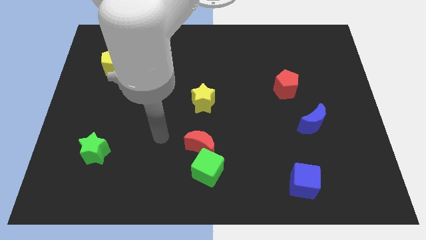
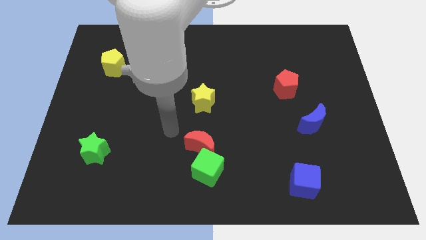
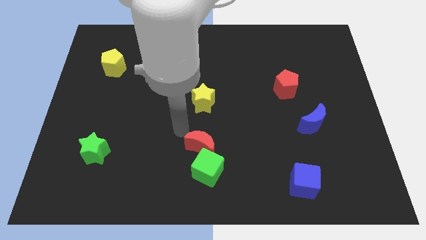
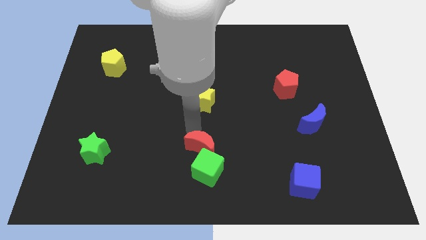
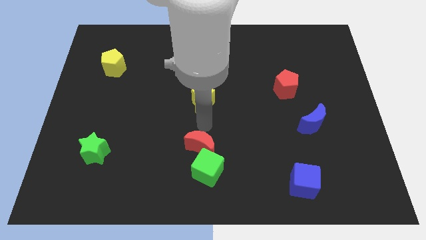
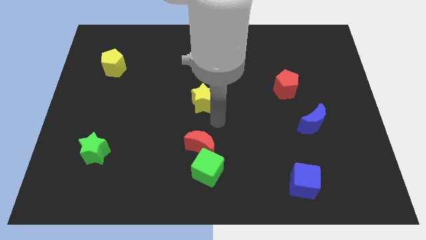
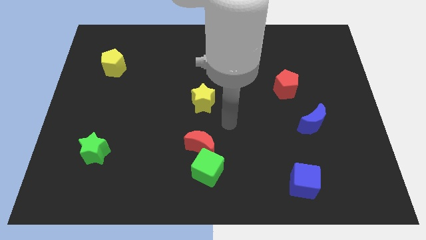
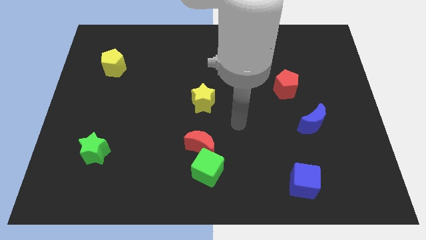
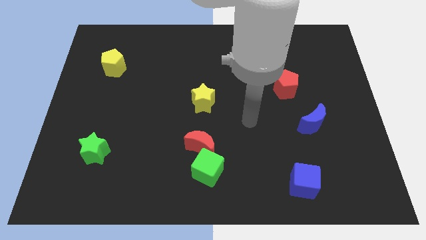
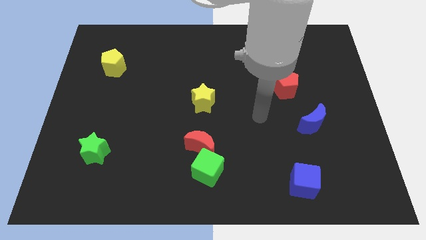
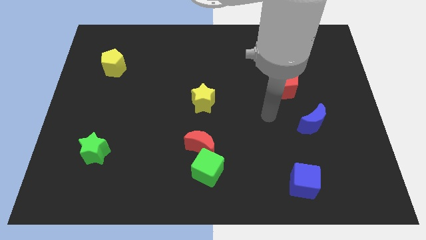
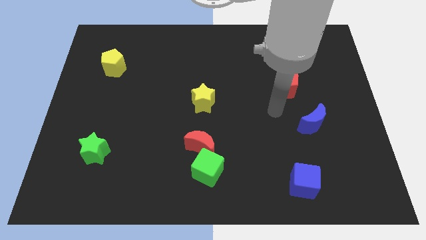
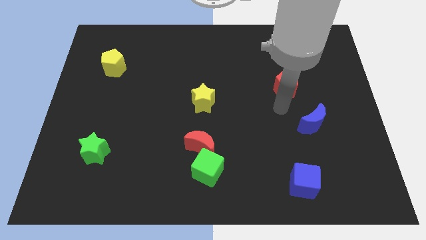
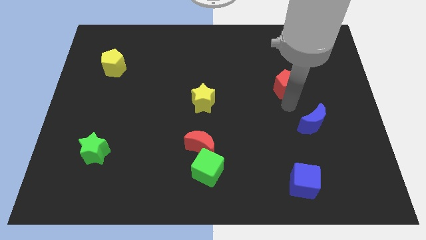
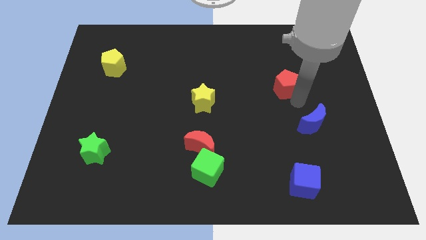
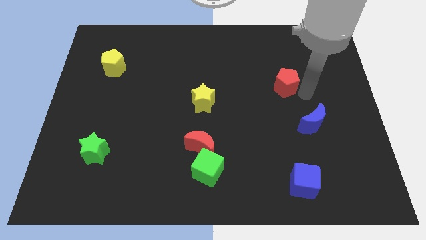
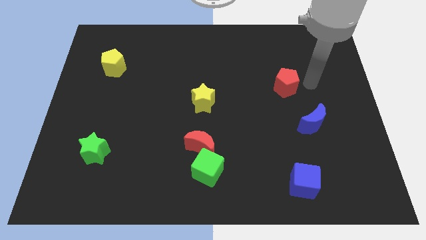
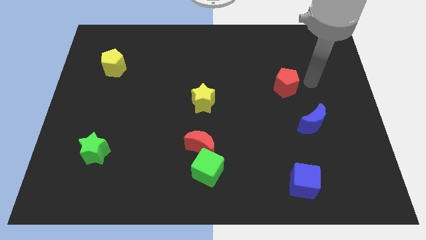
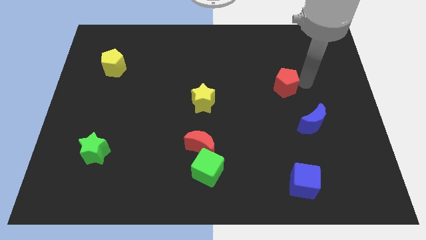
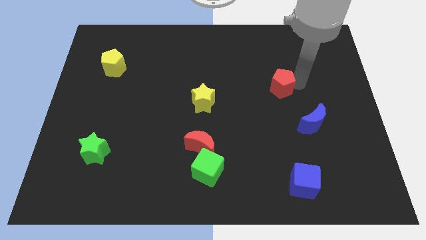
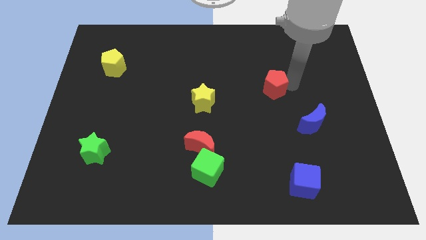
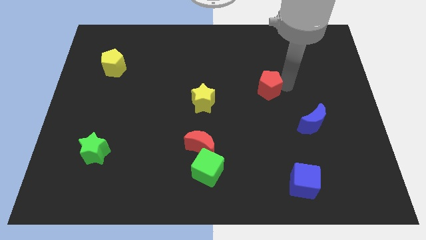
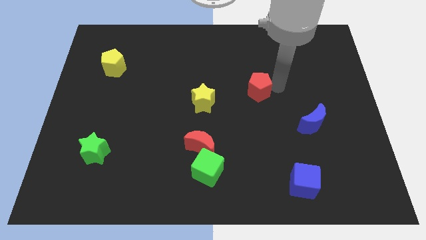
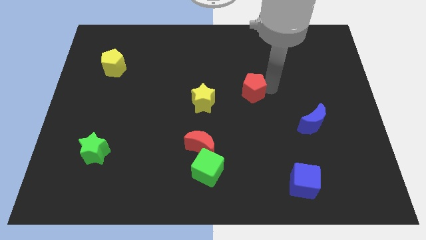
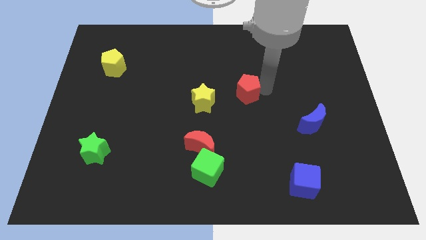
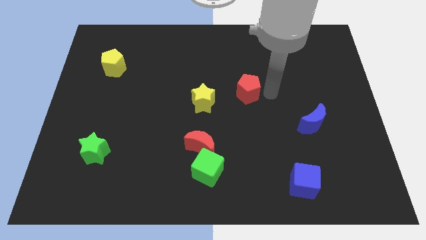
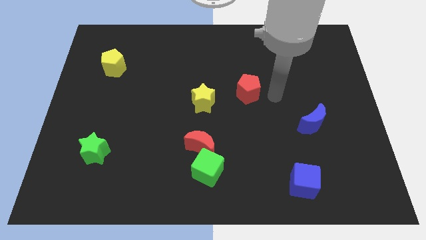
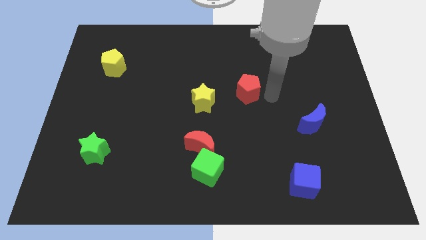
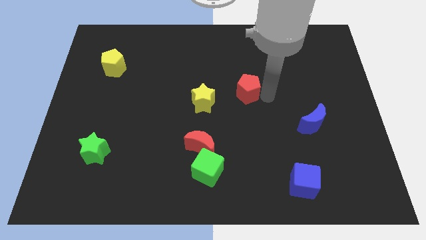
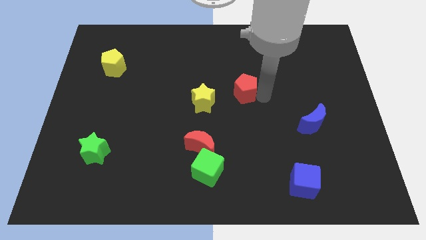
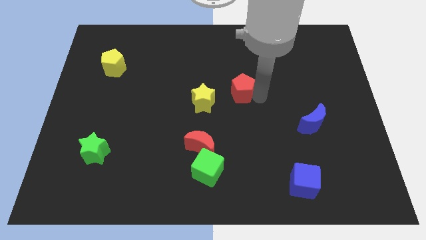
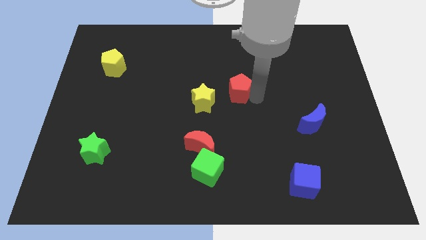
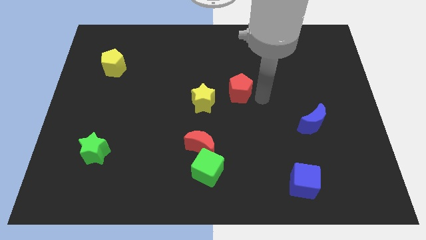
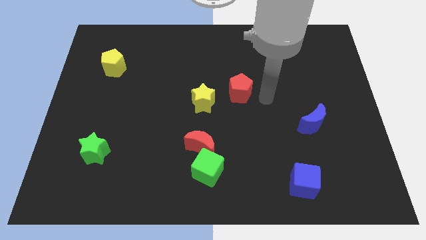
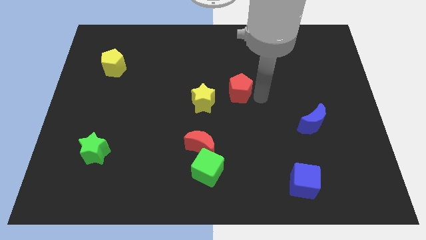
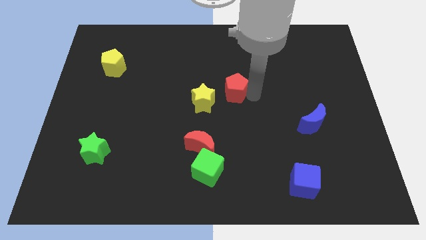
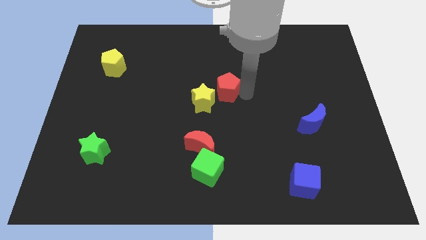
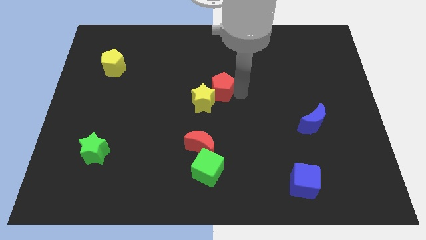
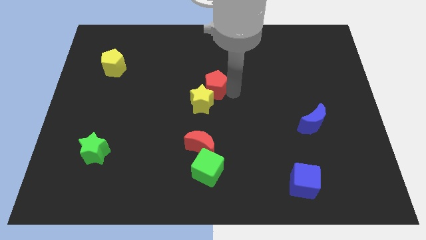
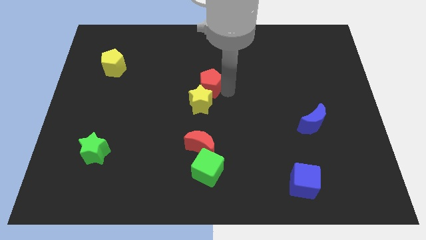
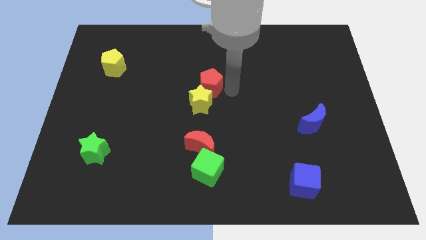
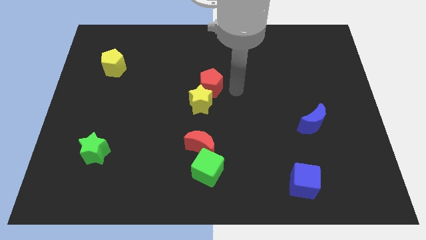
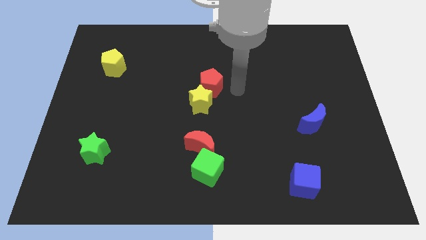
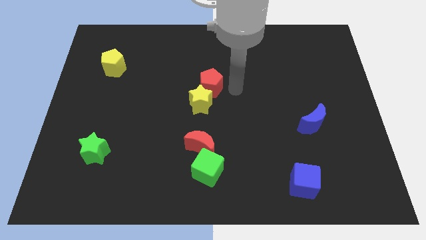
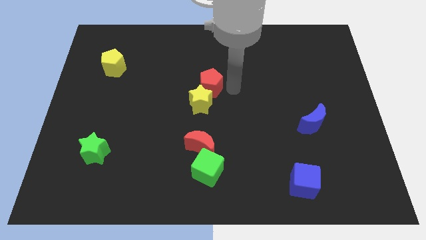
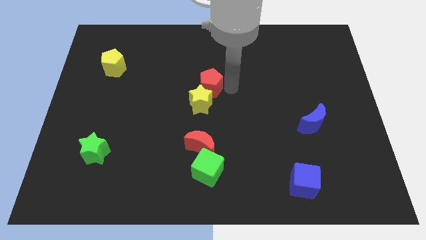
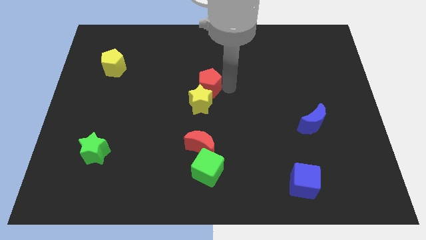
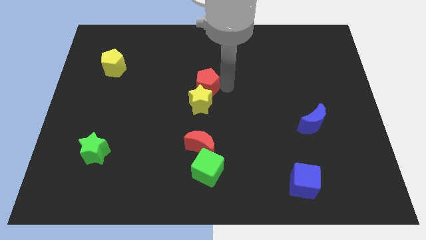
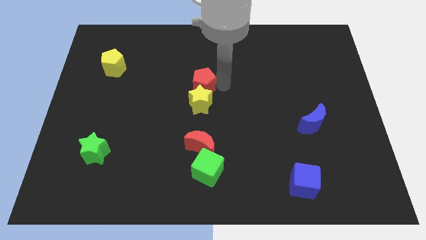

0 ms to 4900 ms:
slide the red pentagon to the left

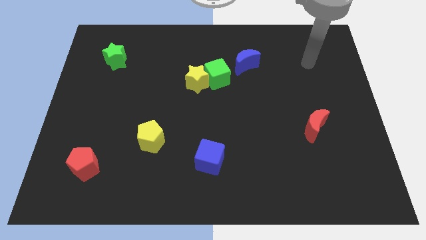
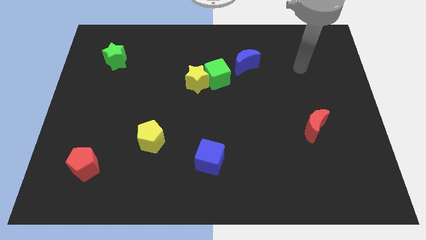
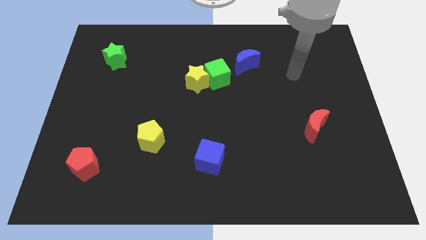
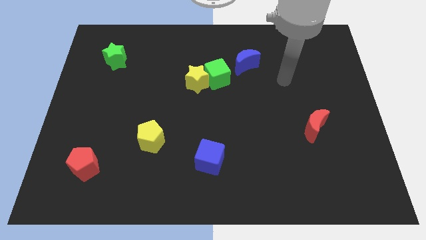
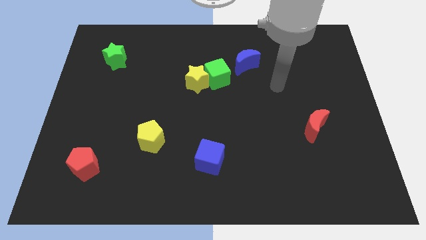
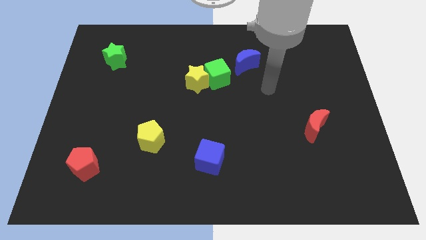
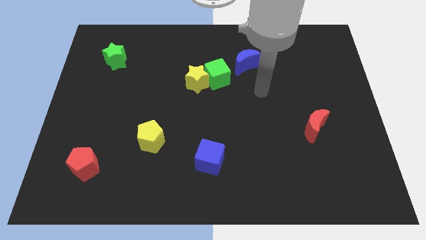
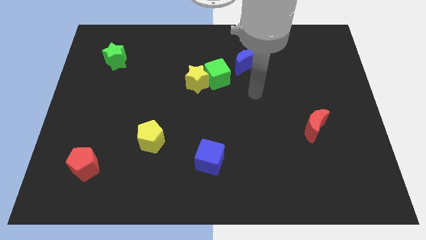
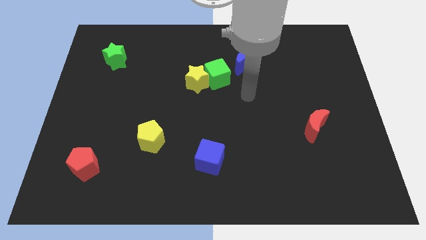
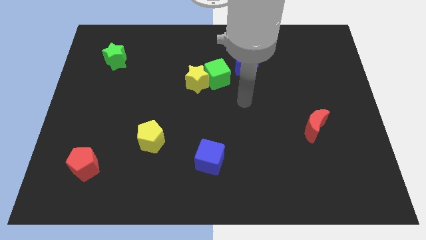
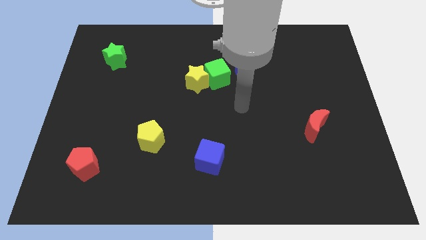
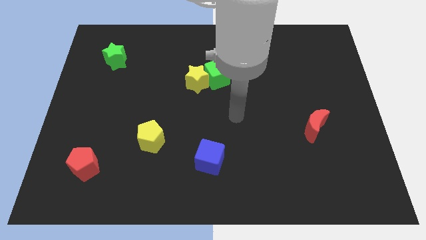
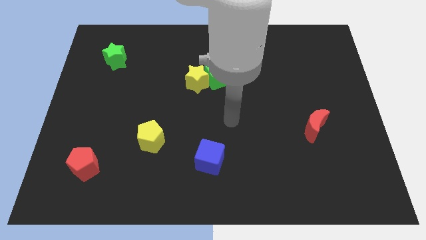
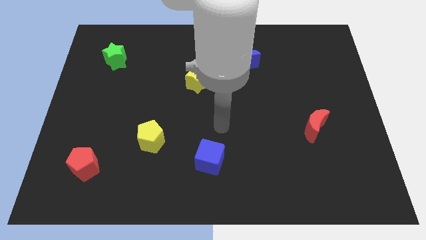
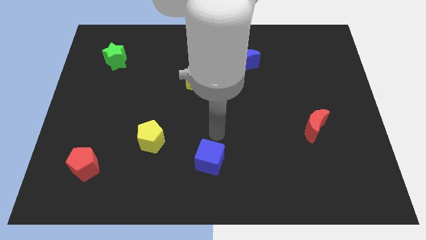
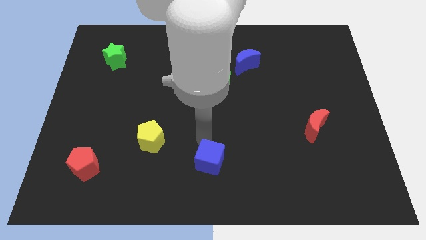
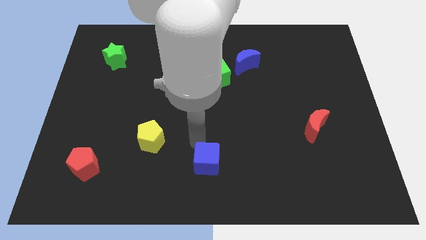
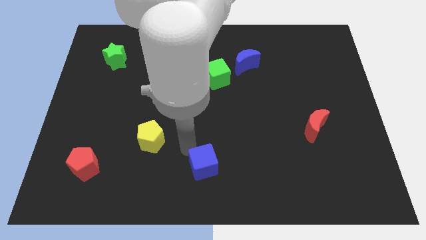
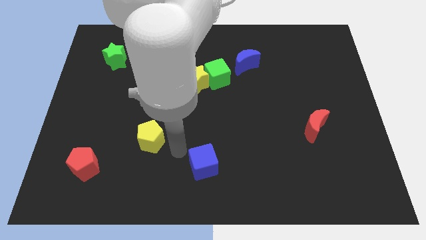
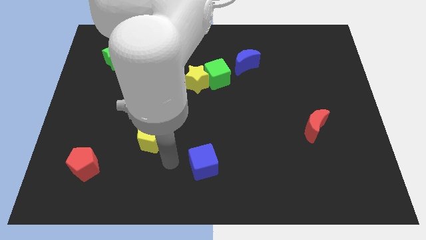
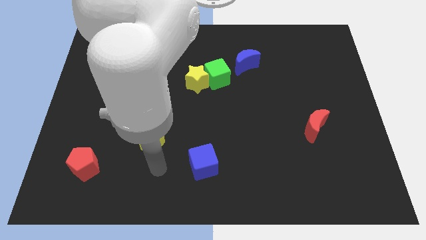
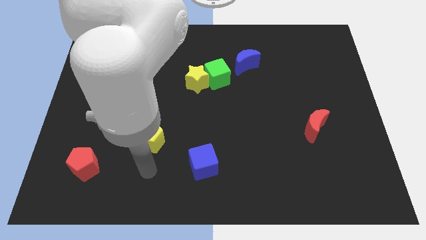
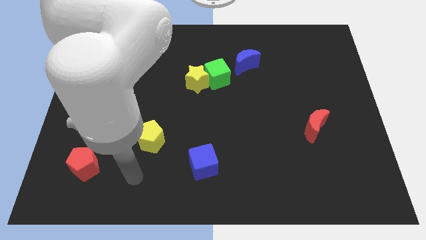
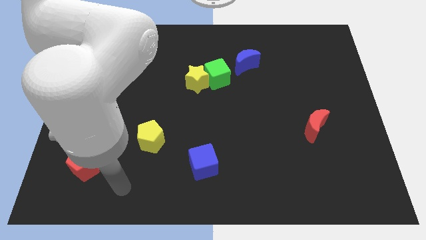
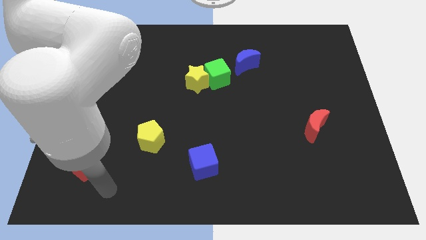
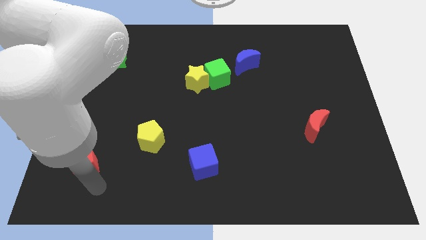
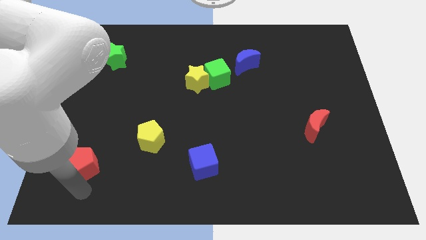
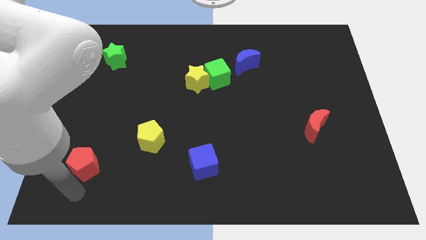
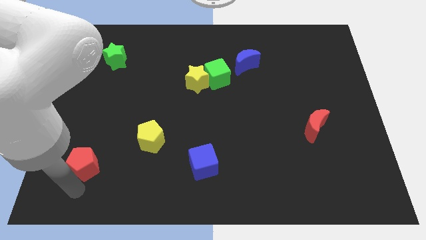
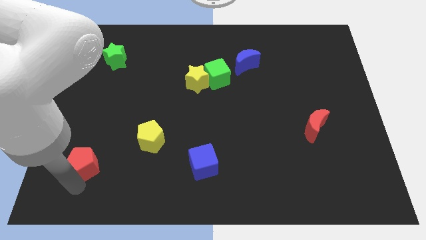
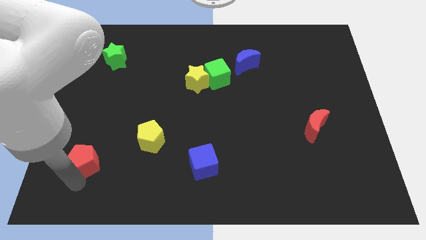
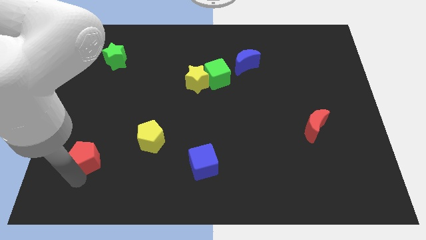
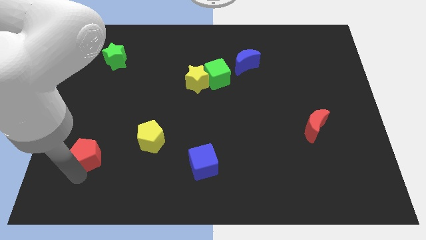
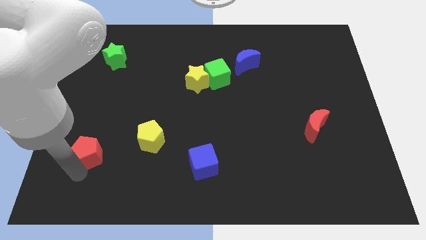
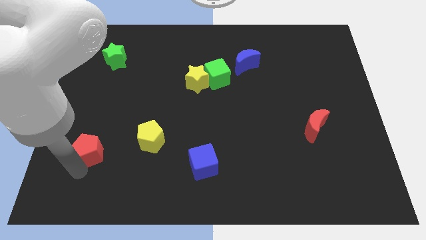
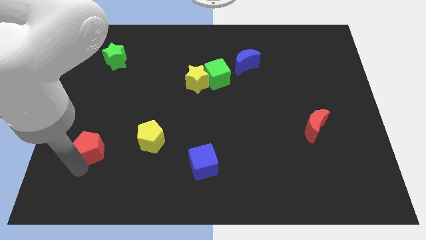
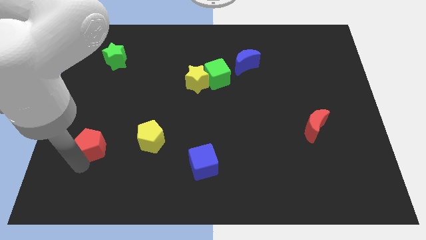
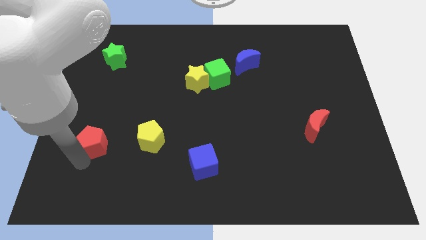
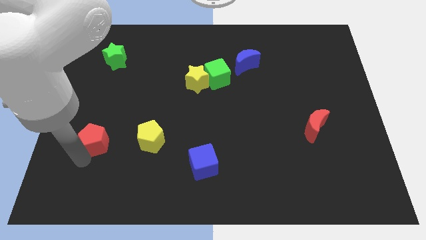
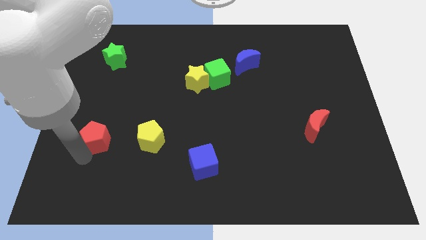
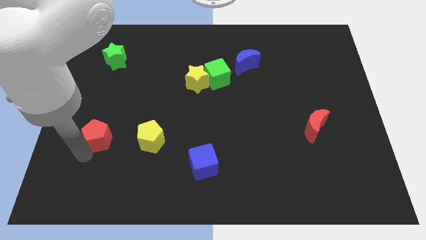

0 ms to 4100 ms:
move the red pentagon up a bit
